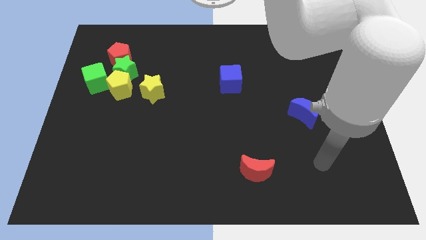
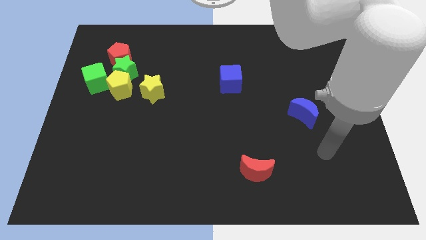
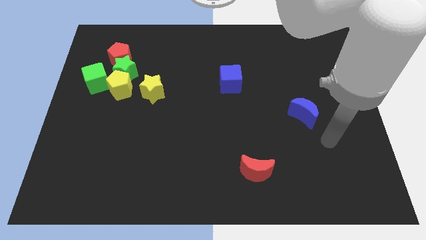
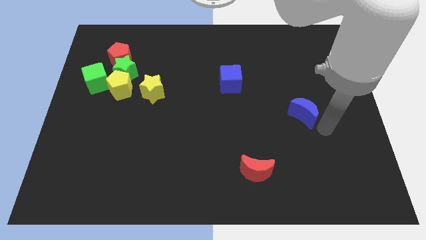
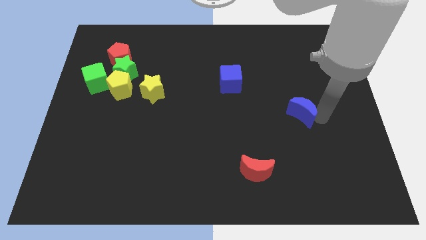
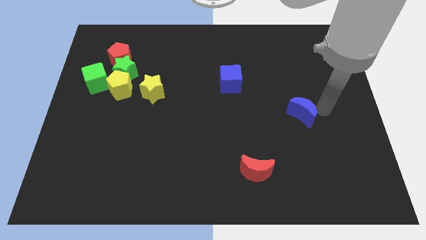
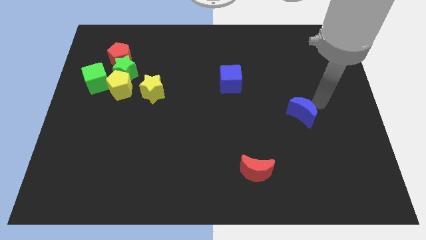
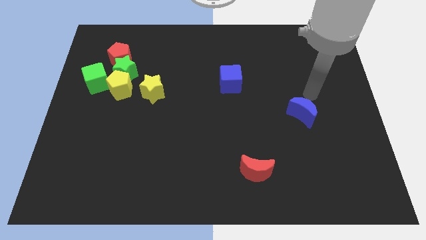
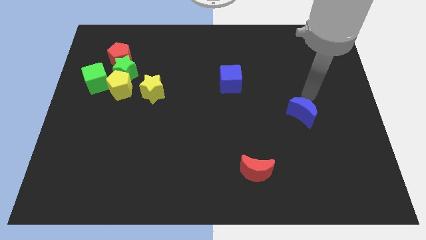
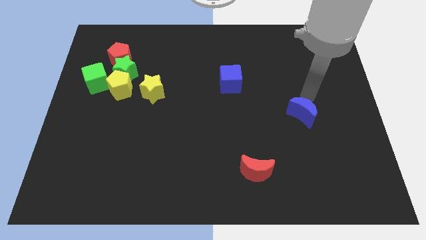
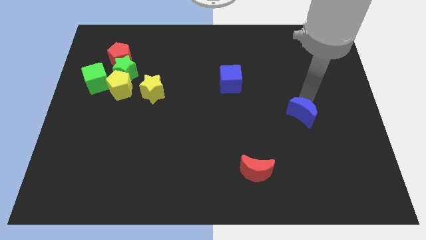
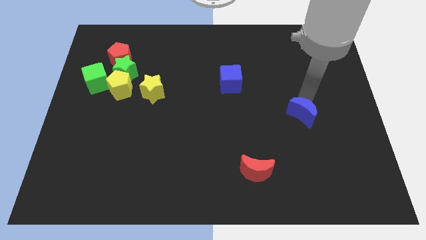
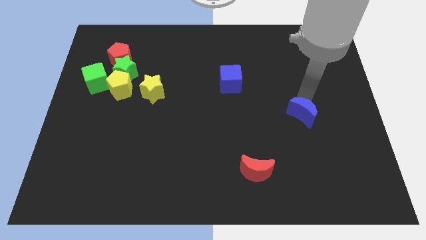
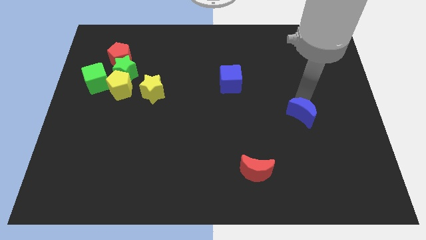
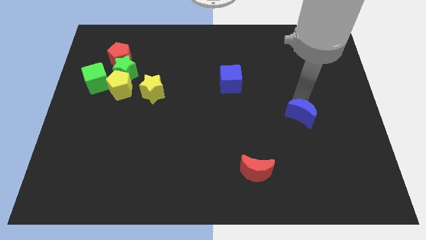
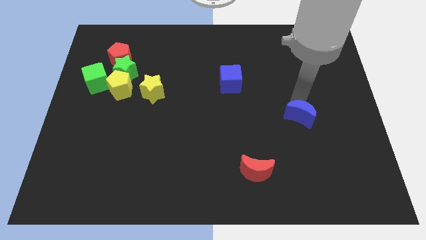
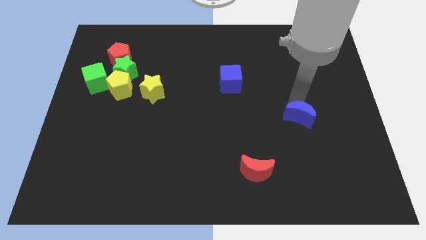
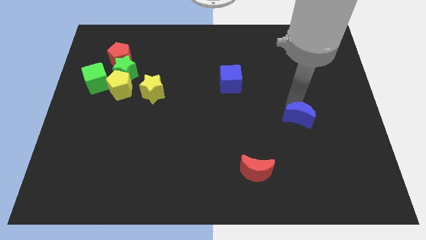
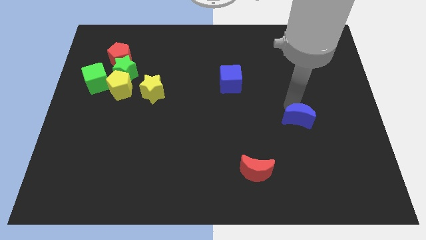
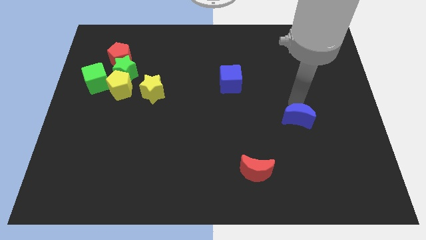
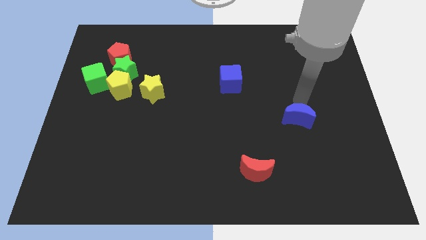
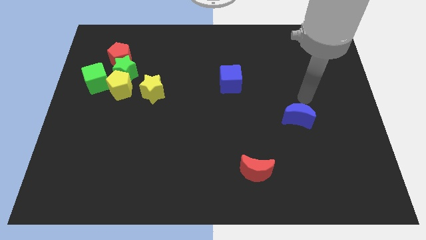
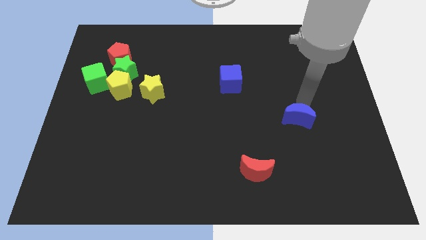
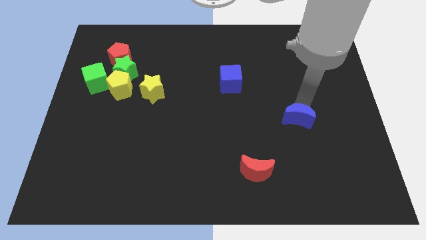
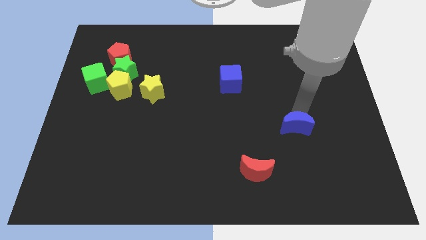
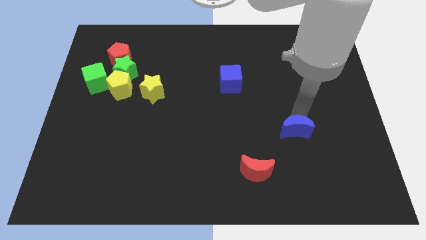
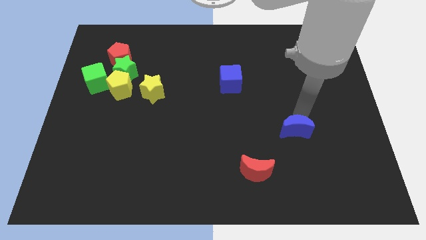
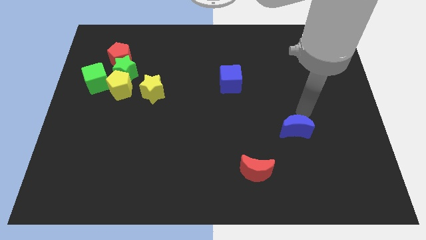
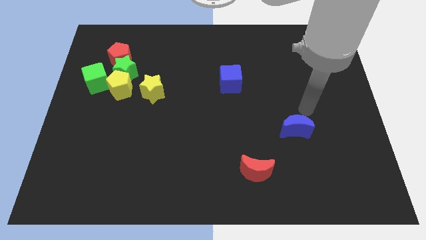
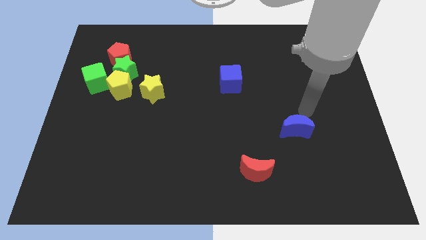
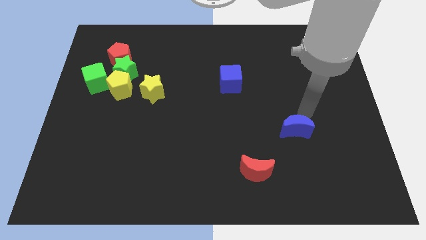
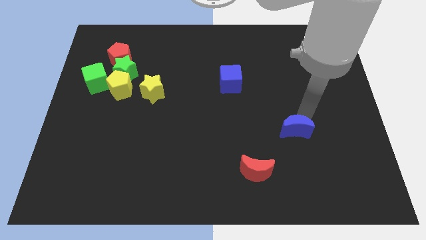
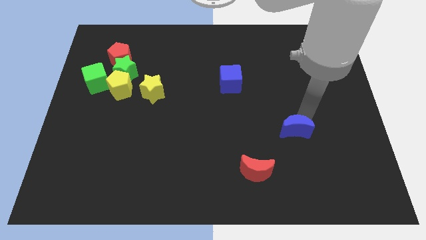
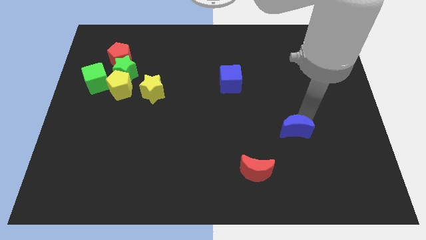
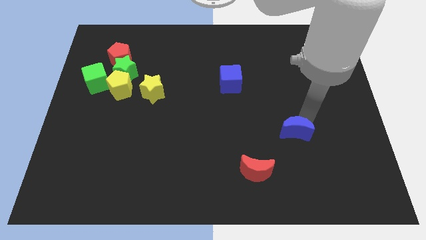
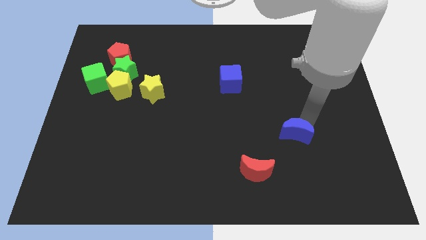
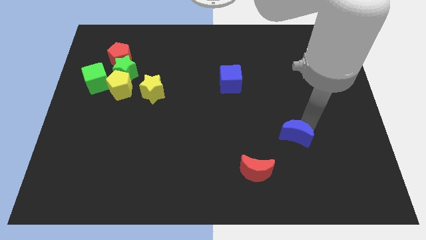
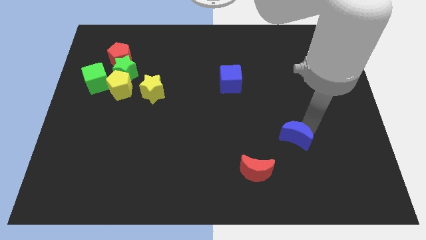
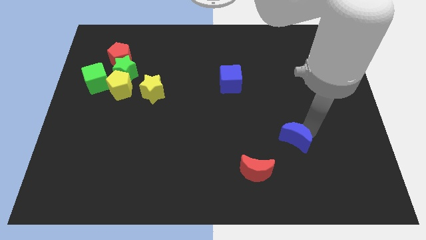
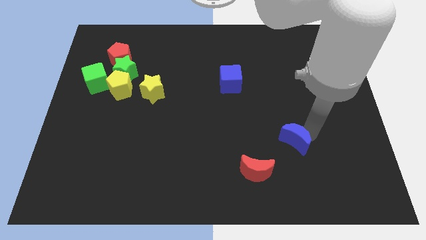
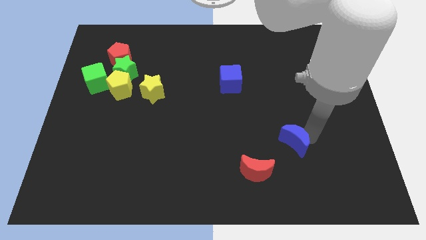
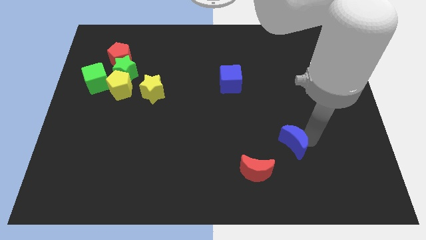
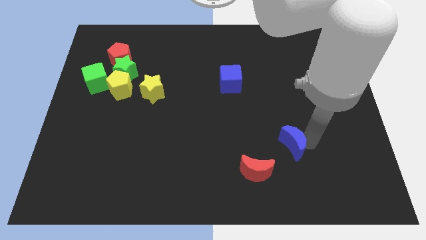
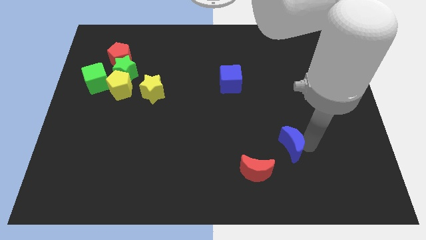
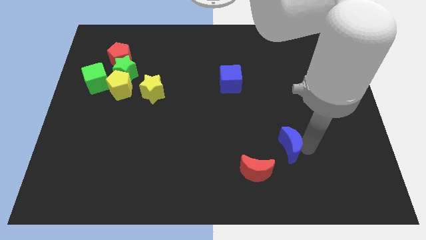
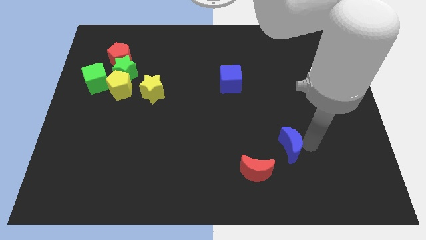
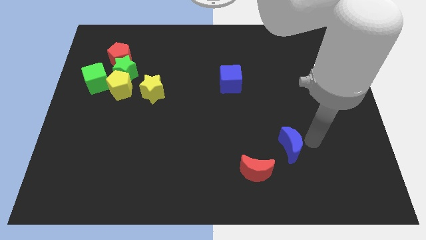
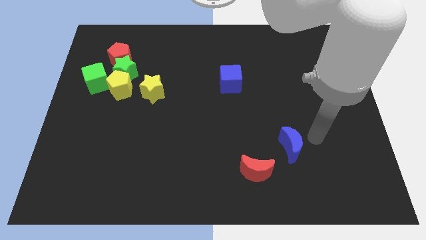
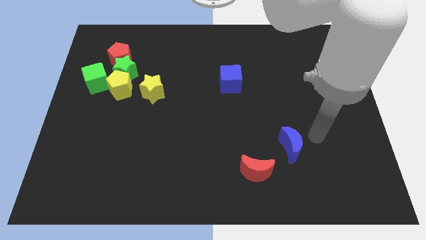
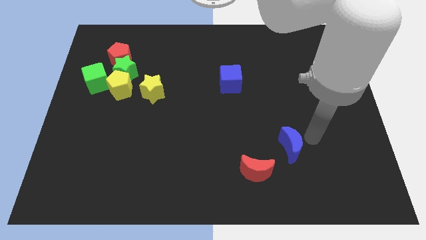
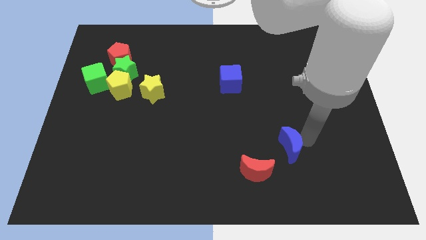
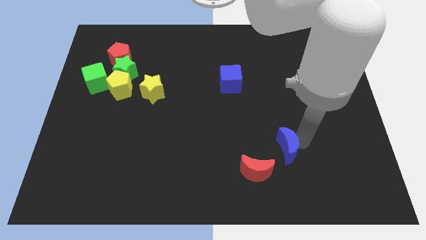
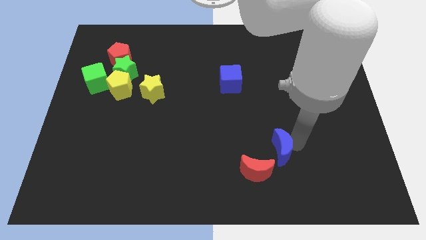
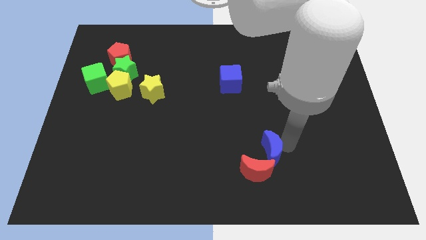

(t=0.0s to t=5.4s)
put the blue moon close to the red moon

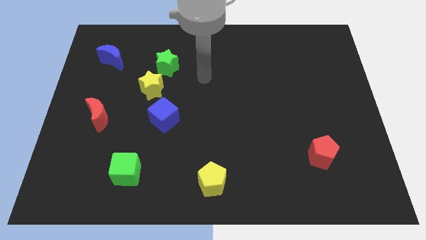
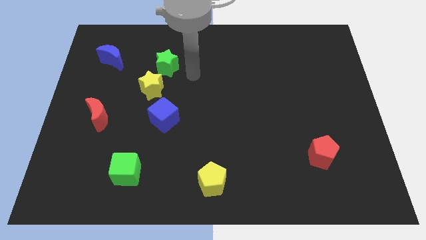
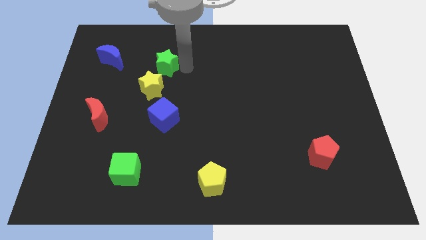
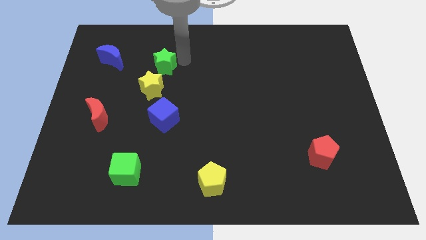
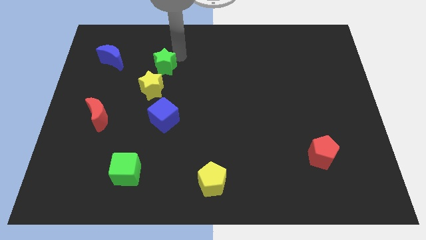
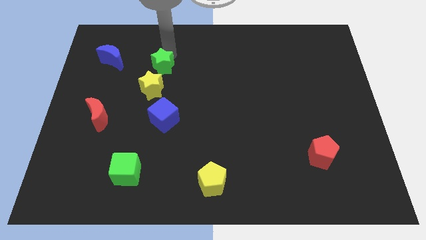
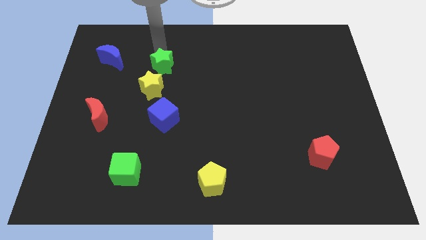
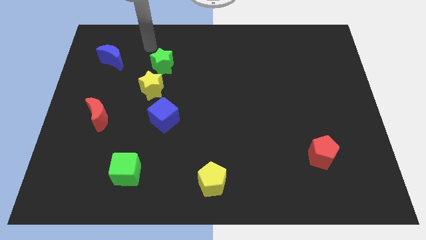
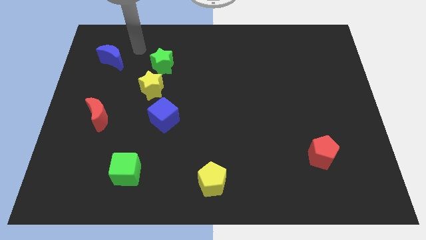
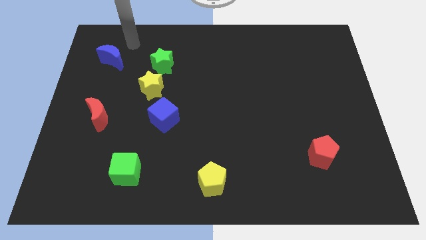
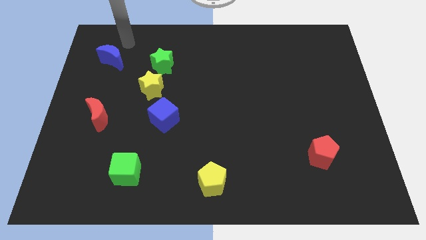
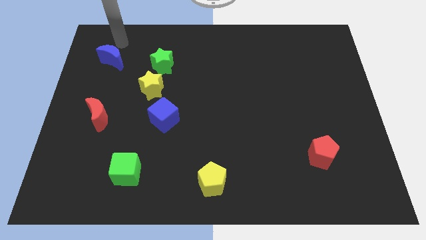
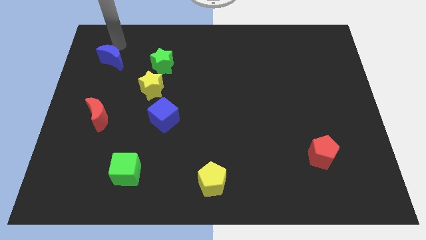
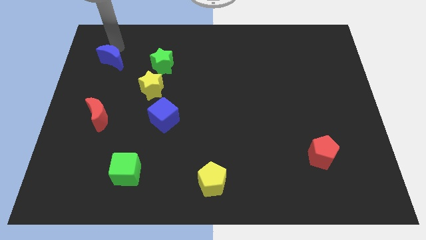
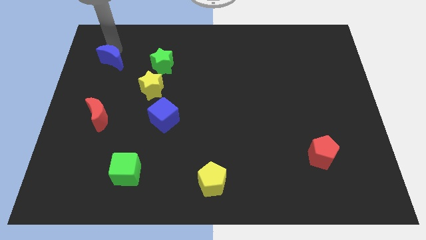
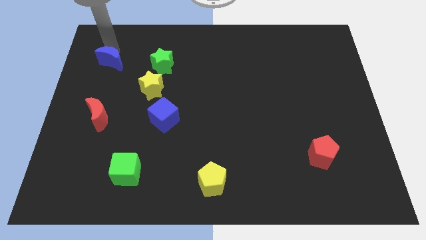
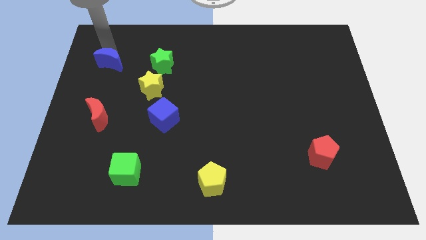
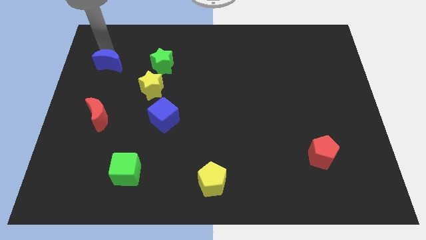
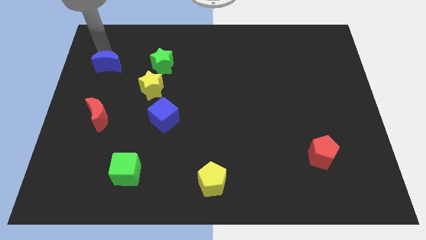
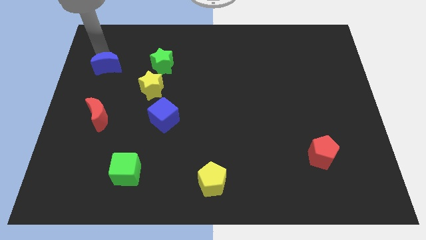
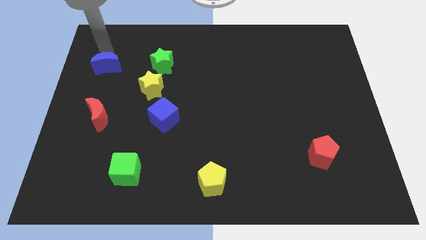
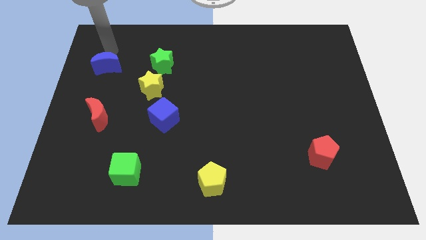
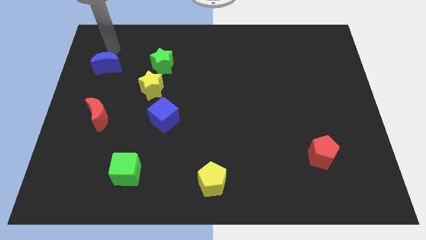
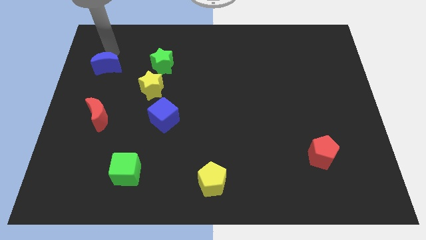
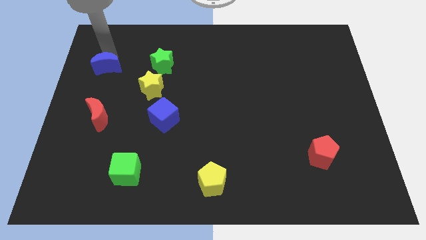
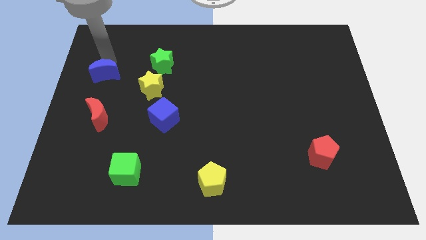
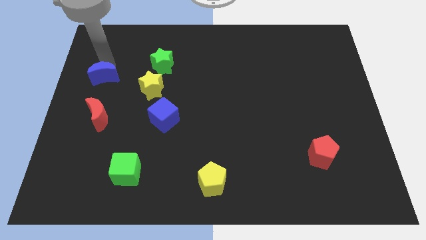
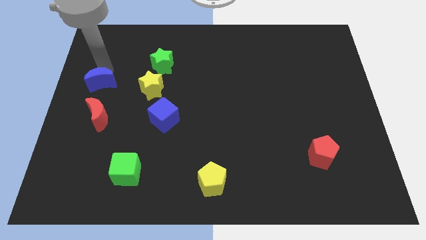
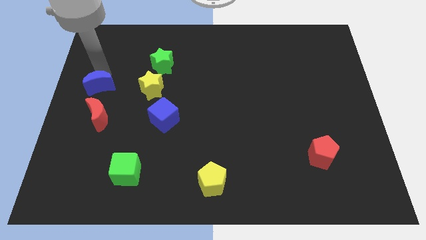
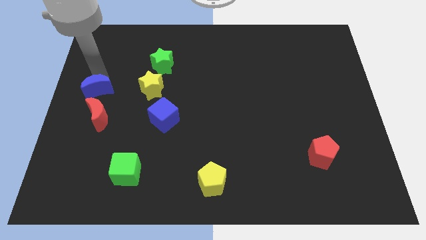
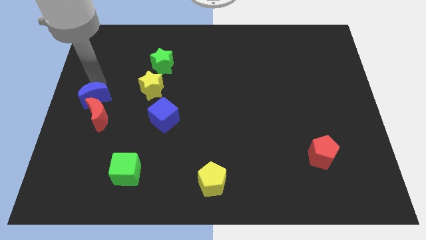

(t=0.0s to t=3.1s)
put the blue moon next to the red moon
